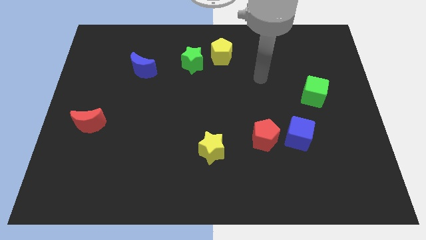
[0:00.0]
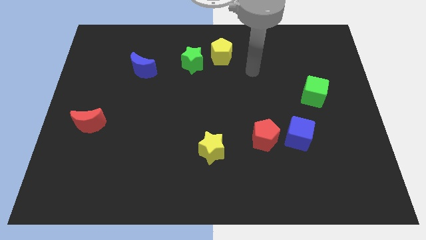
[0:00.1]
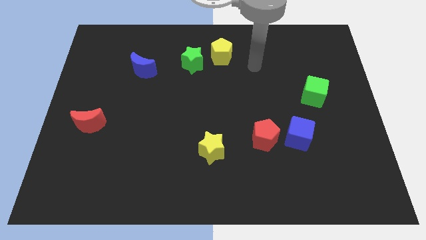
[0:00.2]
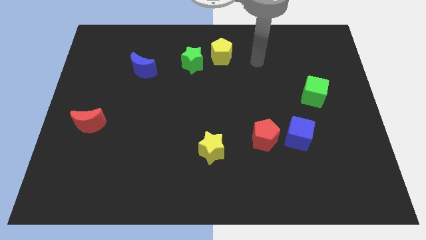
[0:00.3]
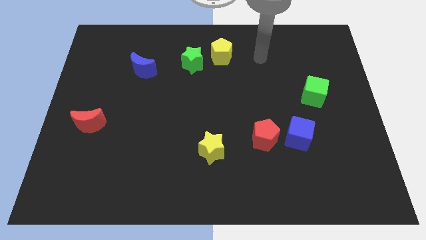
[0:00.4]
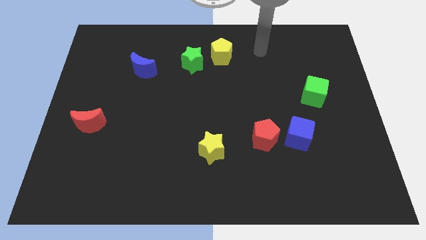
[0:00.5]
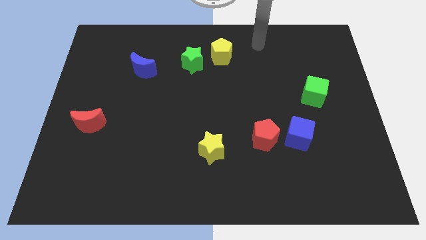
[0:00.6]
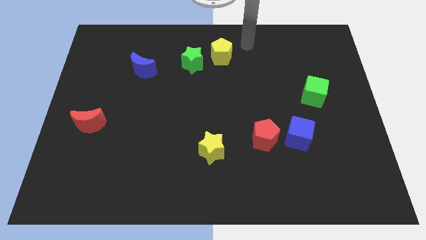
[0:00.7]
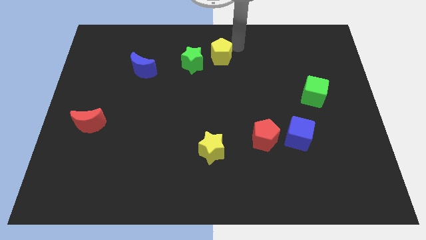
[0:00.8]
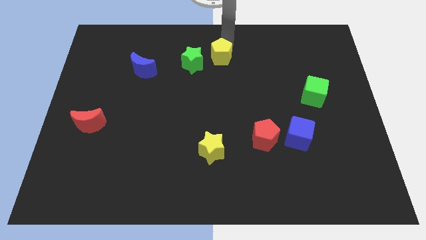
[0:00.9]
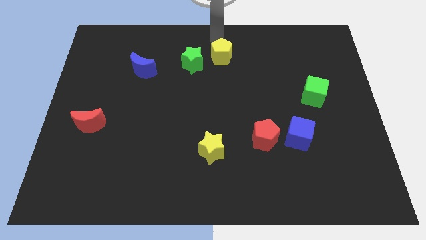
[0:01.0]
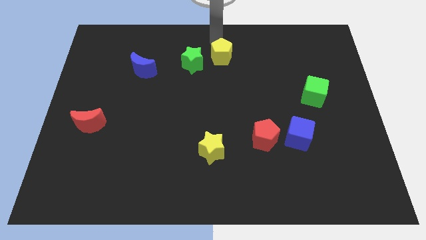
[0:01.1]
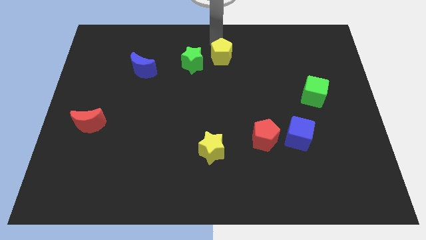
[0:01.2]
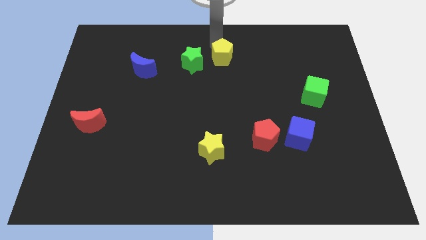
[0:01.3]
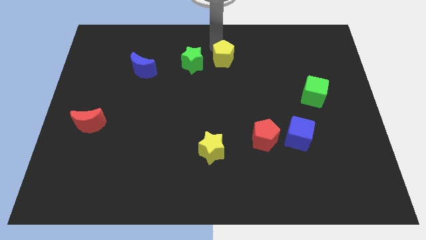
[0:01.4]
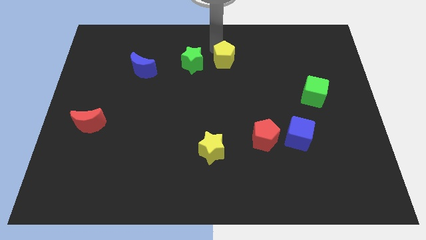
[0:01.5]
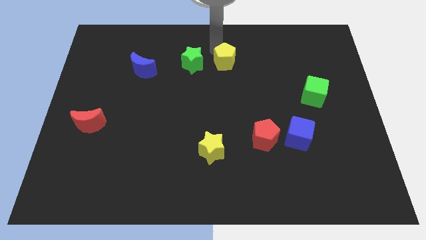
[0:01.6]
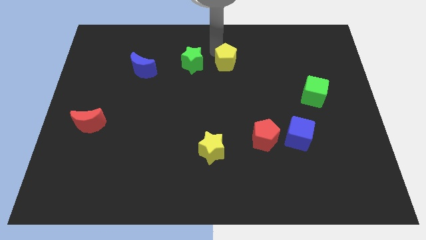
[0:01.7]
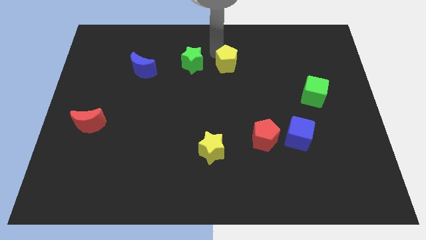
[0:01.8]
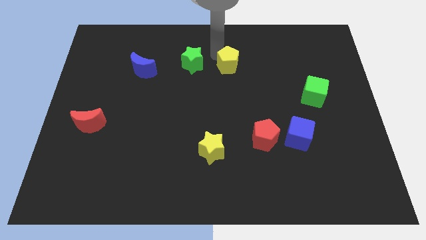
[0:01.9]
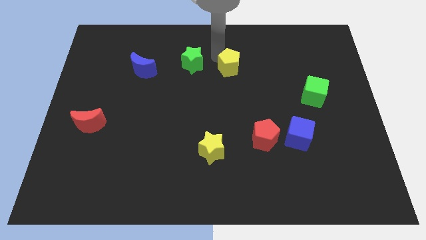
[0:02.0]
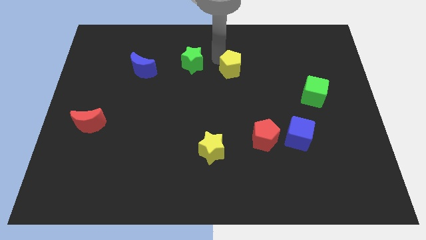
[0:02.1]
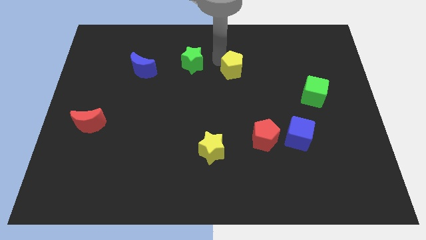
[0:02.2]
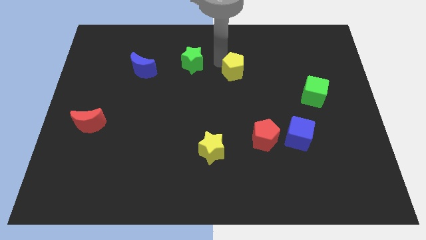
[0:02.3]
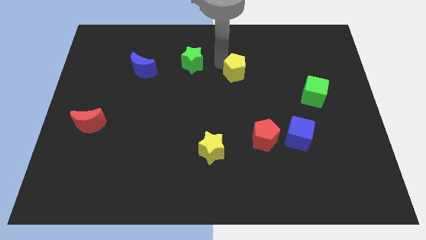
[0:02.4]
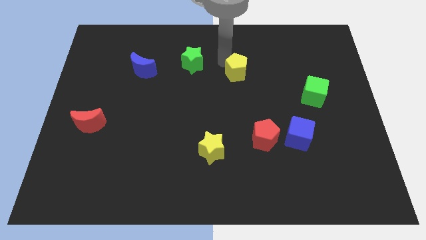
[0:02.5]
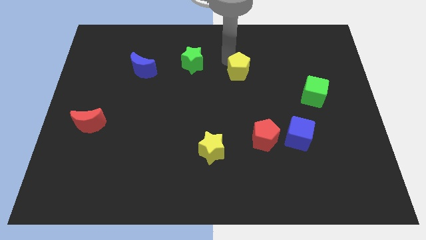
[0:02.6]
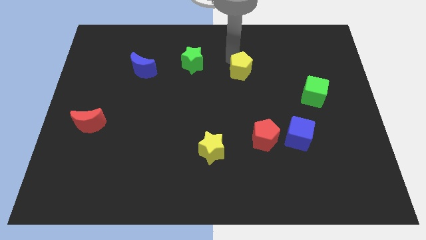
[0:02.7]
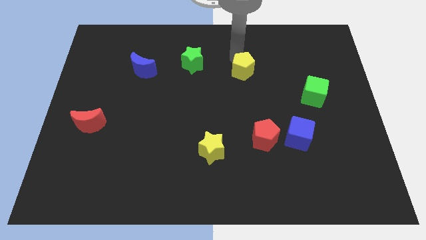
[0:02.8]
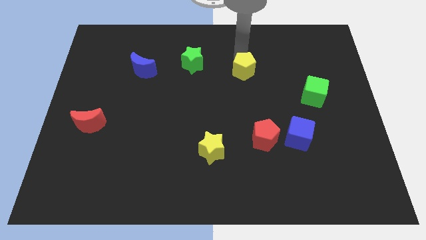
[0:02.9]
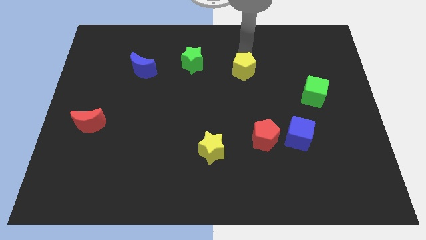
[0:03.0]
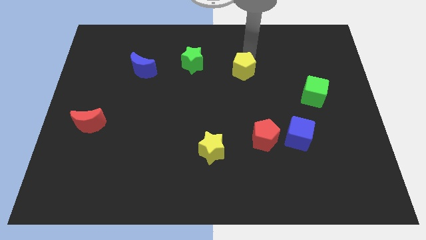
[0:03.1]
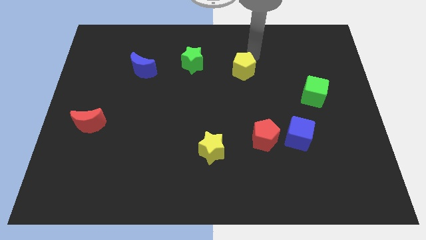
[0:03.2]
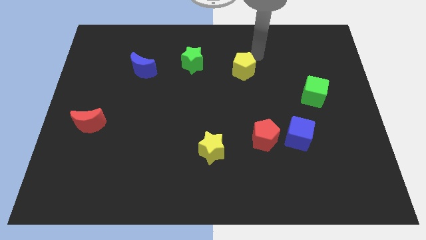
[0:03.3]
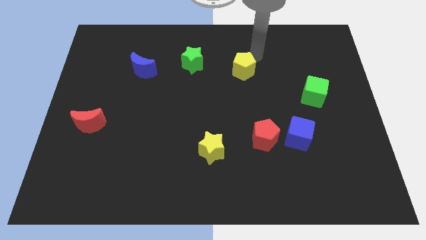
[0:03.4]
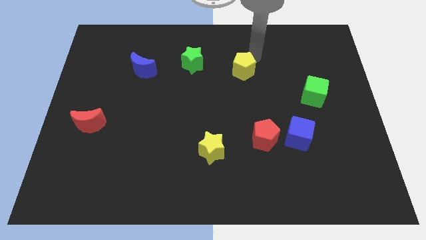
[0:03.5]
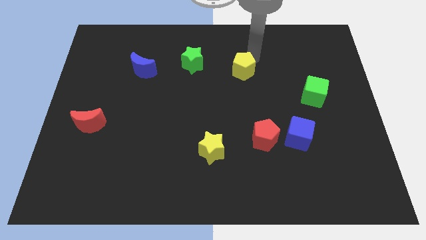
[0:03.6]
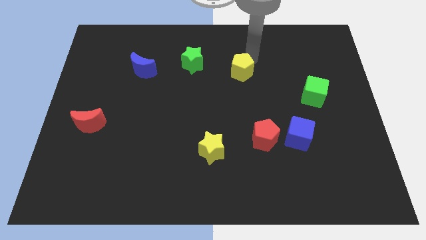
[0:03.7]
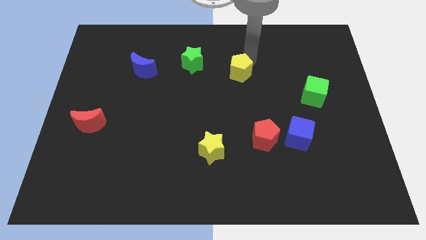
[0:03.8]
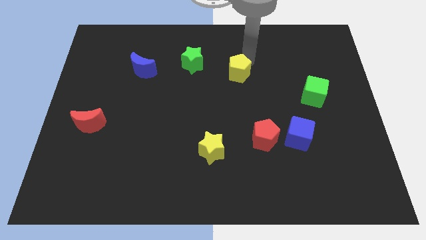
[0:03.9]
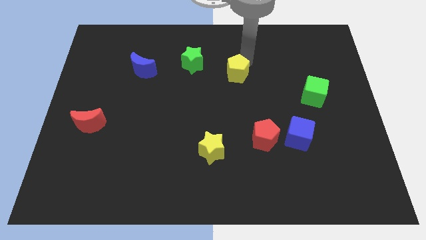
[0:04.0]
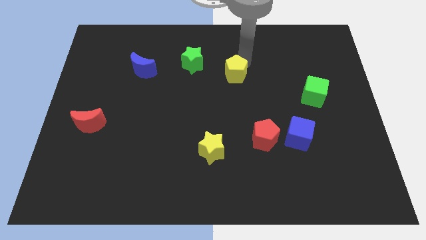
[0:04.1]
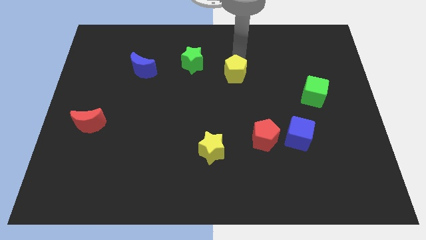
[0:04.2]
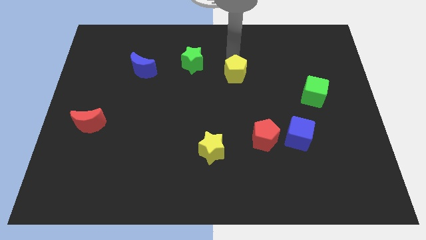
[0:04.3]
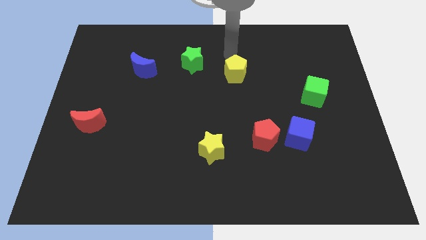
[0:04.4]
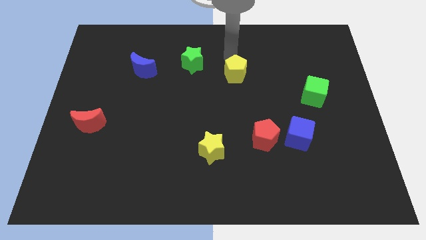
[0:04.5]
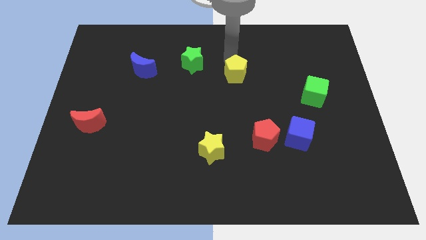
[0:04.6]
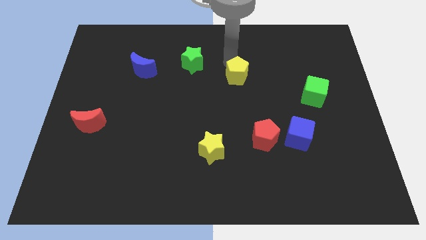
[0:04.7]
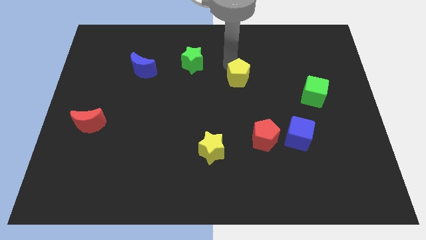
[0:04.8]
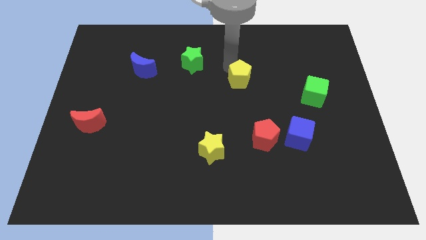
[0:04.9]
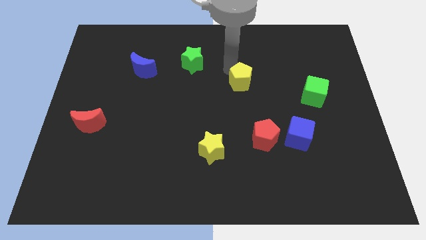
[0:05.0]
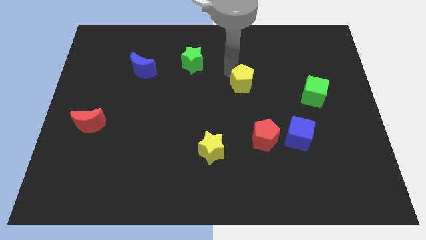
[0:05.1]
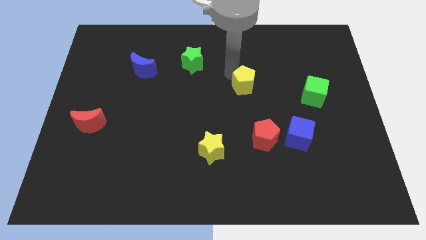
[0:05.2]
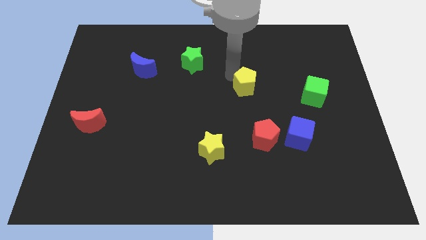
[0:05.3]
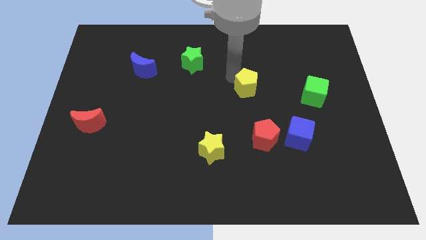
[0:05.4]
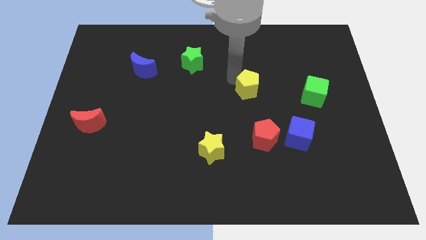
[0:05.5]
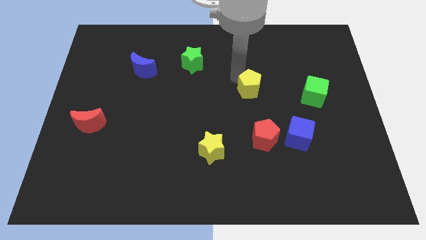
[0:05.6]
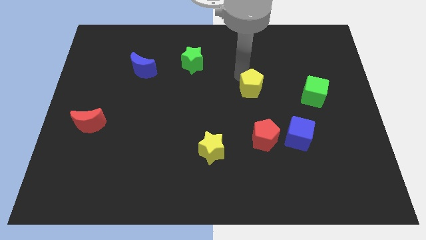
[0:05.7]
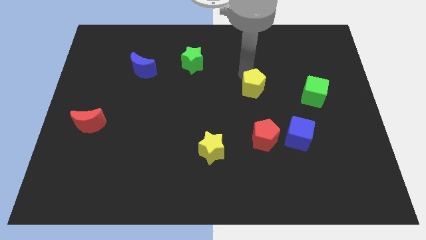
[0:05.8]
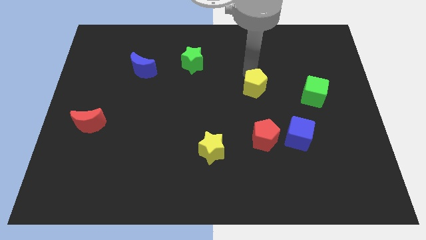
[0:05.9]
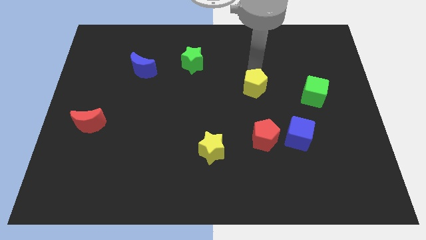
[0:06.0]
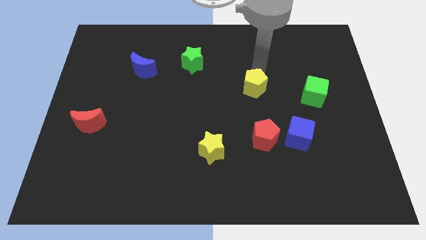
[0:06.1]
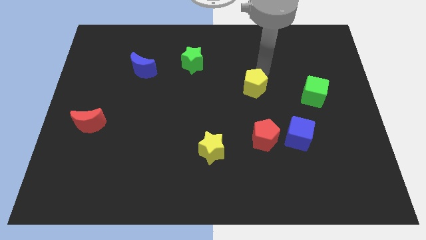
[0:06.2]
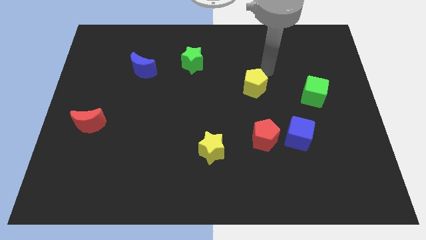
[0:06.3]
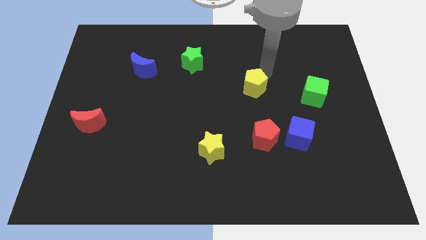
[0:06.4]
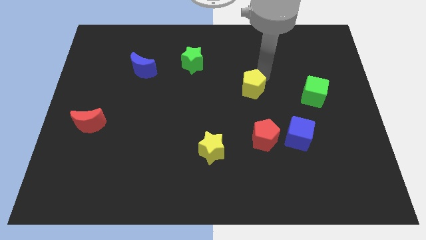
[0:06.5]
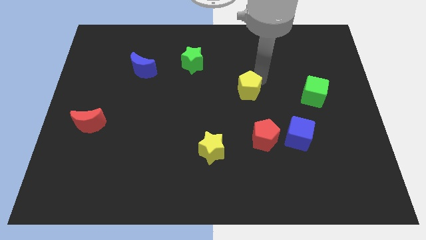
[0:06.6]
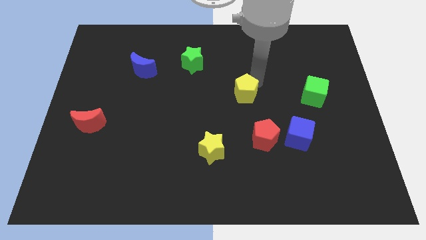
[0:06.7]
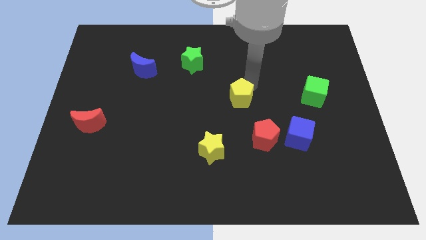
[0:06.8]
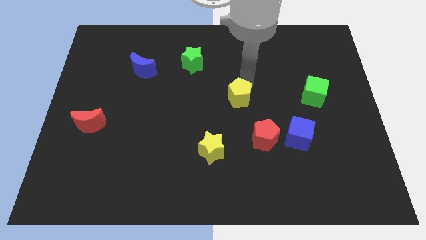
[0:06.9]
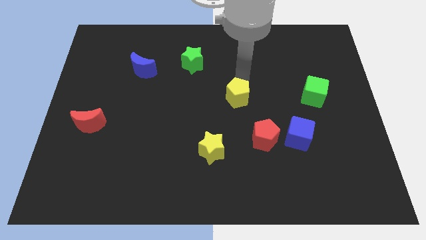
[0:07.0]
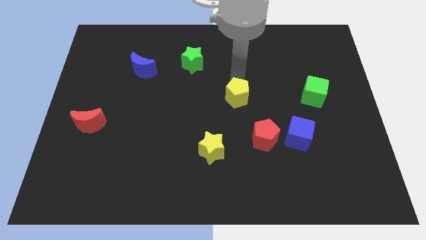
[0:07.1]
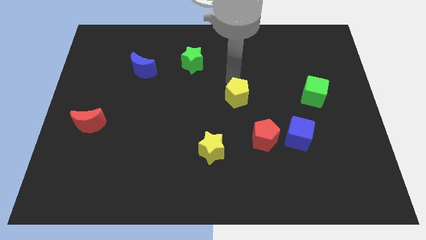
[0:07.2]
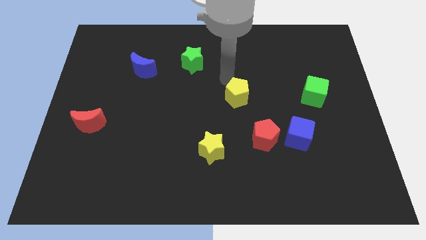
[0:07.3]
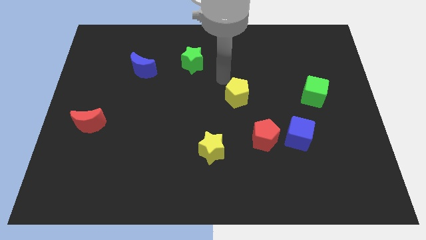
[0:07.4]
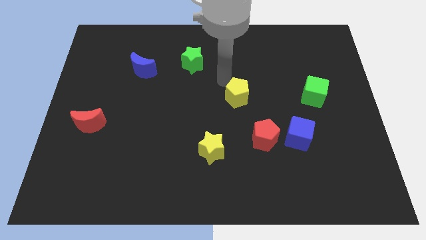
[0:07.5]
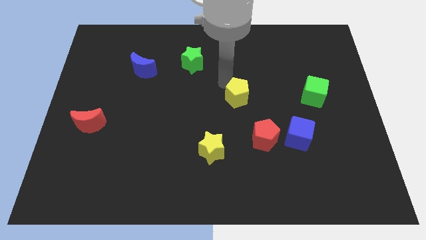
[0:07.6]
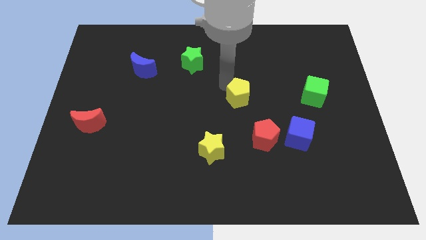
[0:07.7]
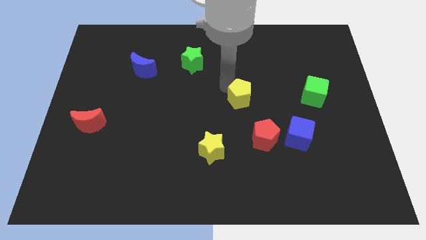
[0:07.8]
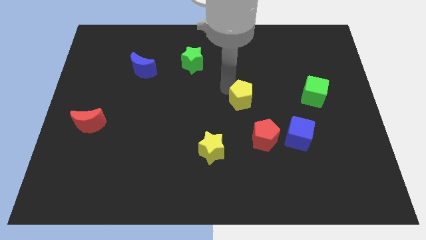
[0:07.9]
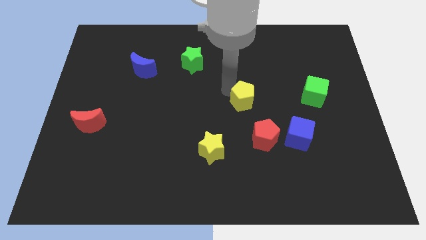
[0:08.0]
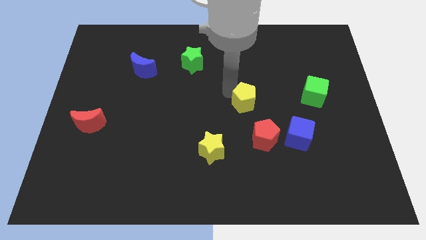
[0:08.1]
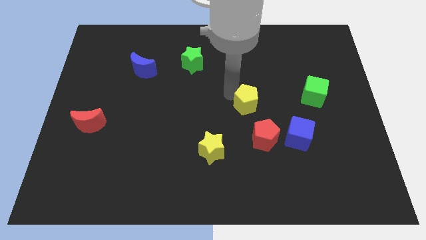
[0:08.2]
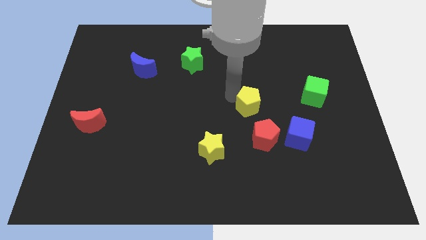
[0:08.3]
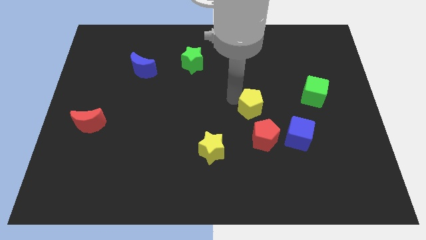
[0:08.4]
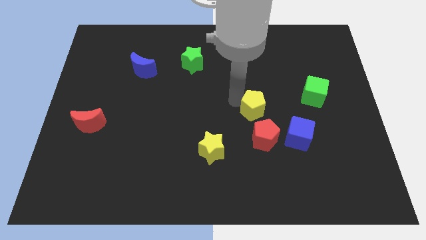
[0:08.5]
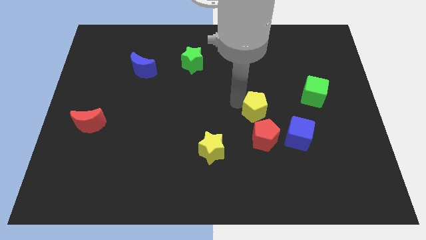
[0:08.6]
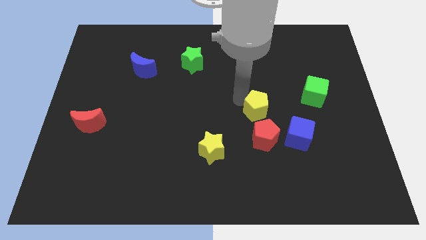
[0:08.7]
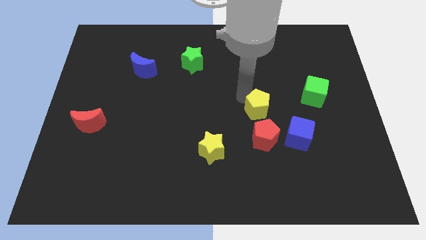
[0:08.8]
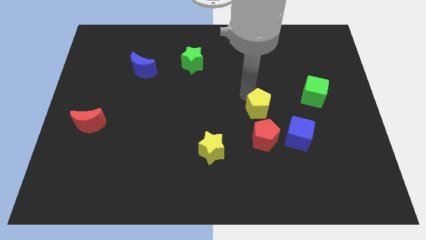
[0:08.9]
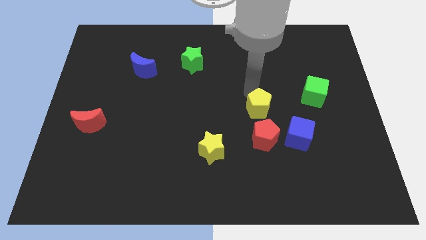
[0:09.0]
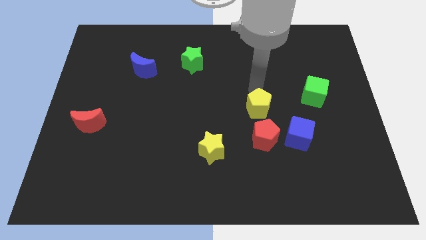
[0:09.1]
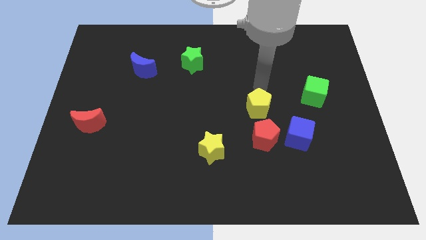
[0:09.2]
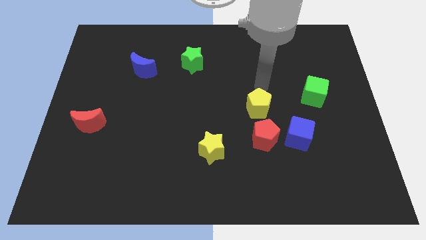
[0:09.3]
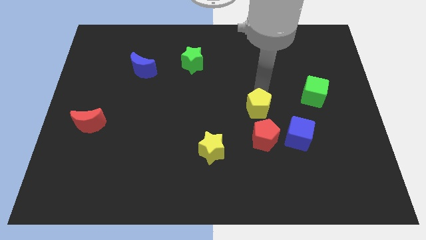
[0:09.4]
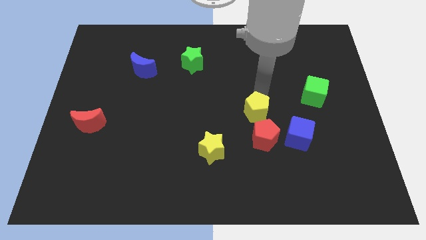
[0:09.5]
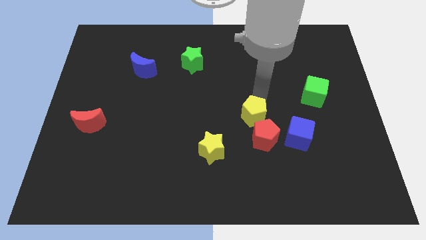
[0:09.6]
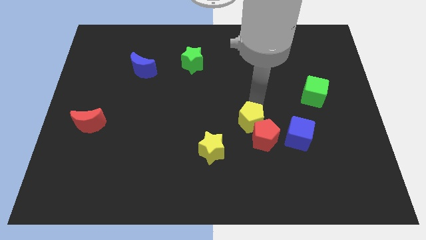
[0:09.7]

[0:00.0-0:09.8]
move the yellow pentagon towards the red pentagon
